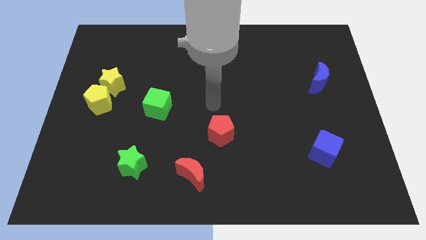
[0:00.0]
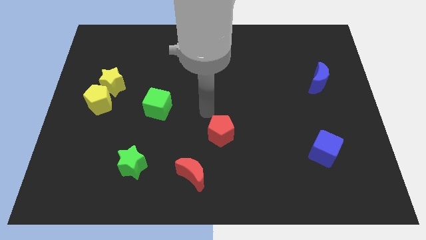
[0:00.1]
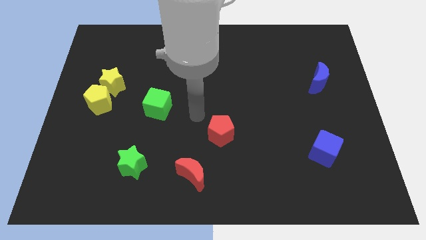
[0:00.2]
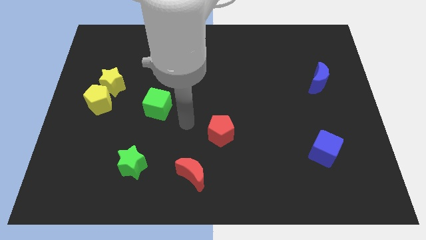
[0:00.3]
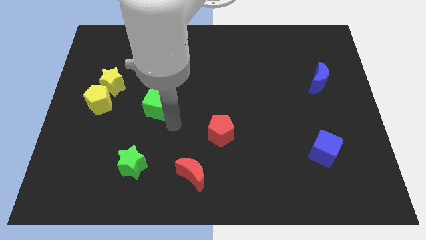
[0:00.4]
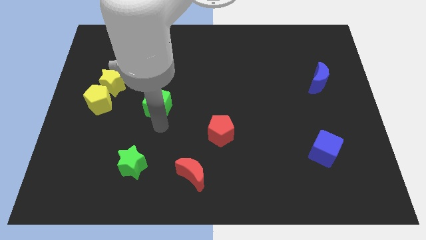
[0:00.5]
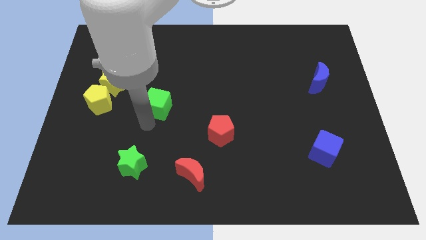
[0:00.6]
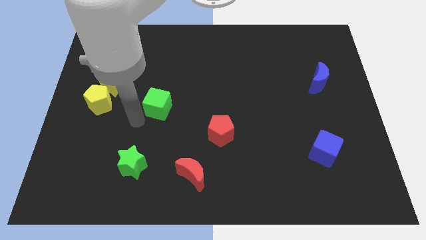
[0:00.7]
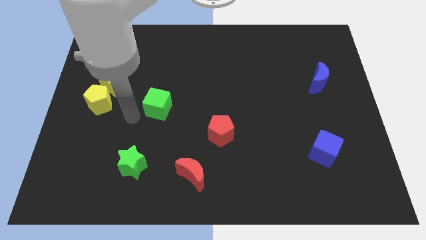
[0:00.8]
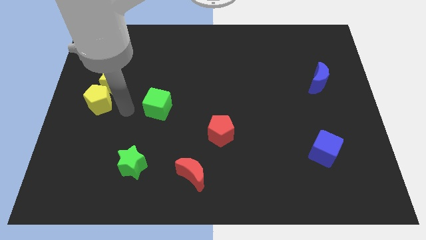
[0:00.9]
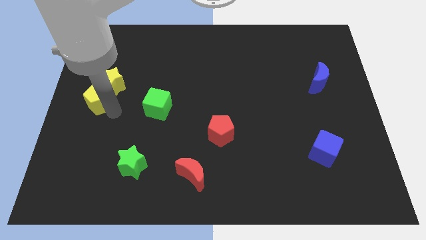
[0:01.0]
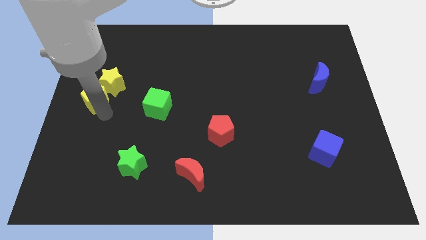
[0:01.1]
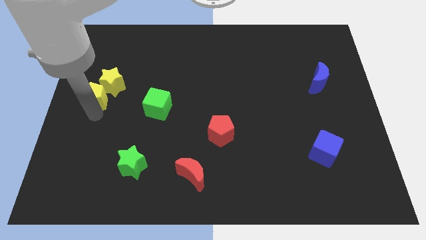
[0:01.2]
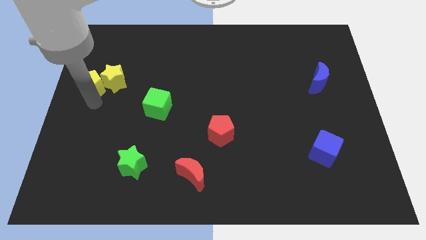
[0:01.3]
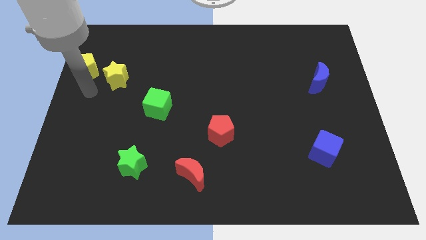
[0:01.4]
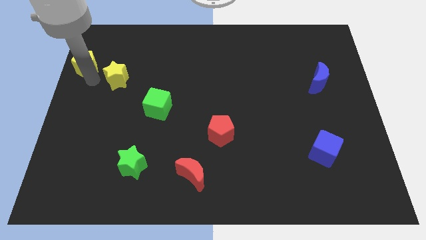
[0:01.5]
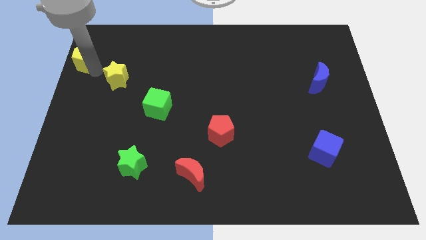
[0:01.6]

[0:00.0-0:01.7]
move the yellow star away from the yellow pentagon

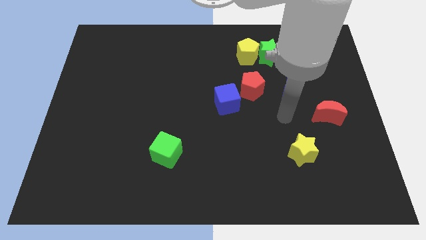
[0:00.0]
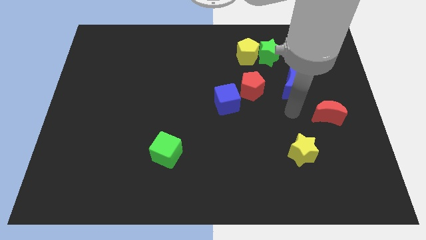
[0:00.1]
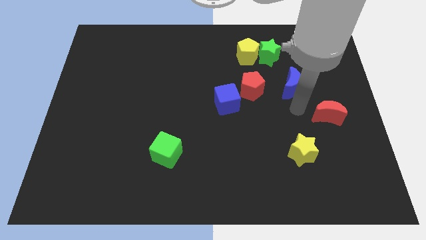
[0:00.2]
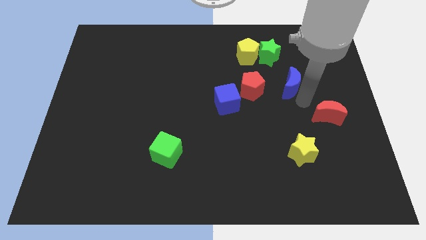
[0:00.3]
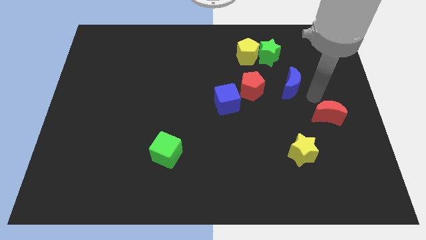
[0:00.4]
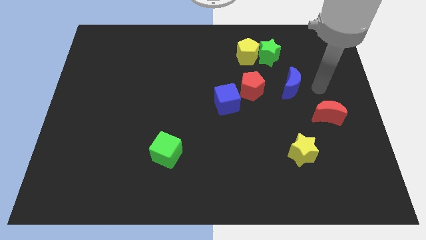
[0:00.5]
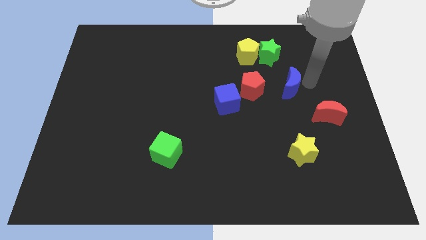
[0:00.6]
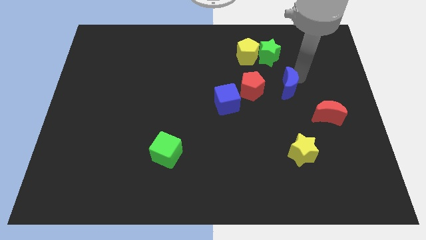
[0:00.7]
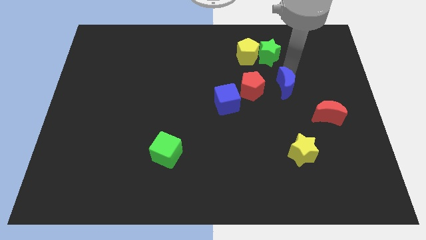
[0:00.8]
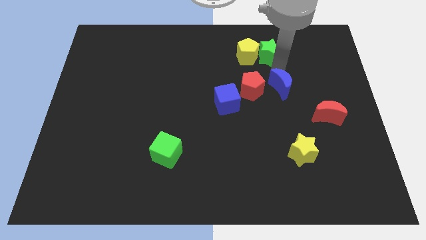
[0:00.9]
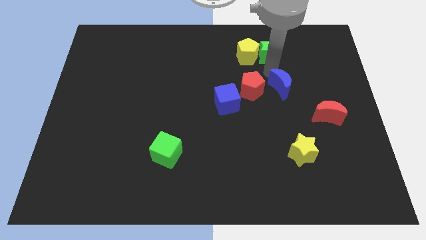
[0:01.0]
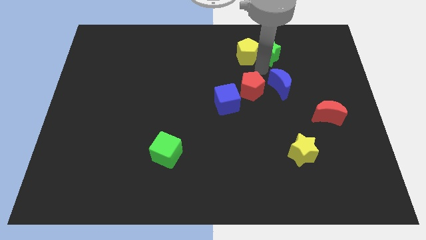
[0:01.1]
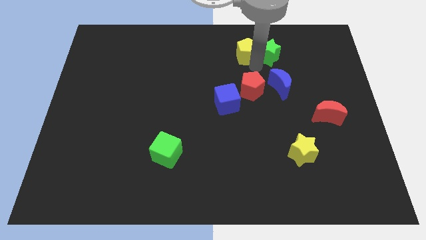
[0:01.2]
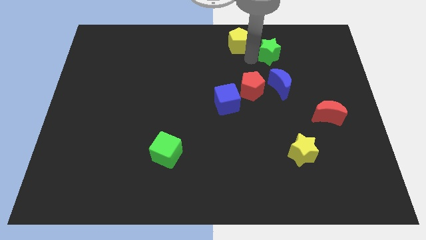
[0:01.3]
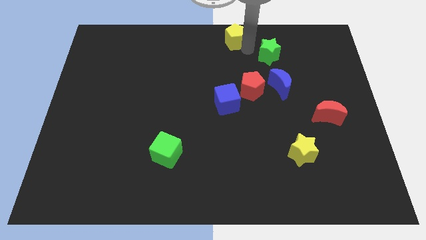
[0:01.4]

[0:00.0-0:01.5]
move the green star away from the yellow pentagon

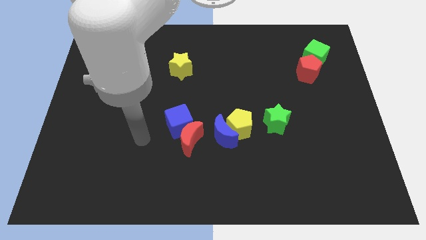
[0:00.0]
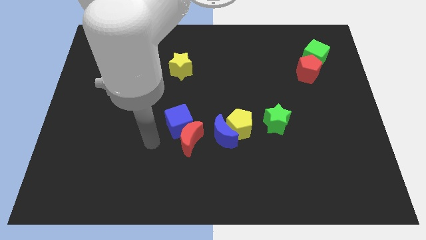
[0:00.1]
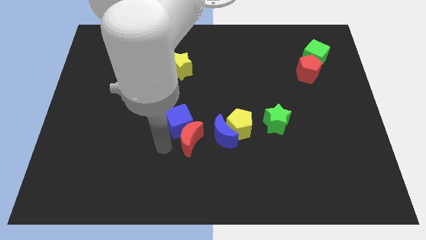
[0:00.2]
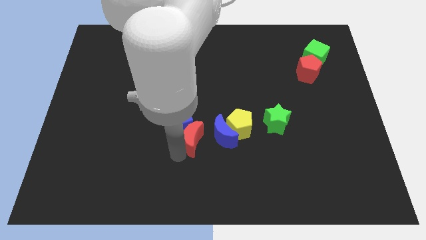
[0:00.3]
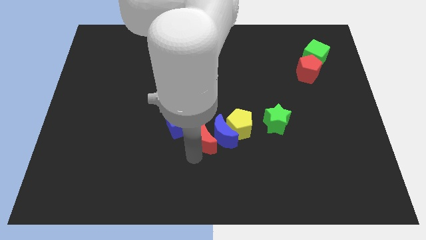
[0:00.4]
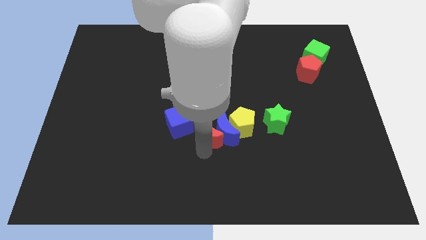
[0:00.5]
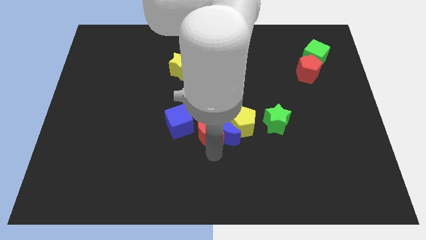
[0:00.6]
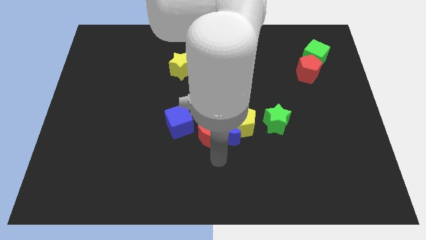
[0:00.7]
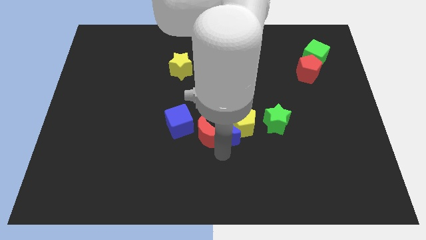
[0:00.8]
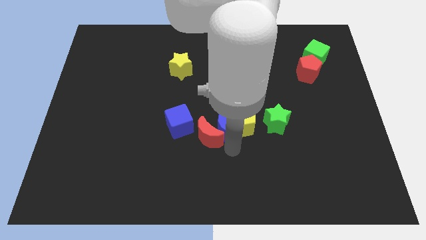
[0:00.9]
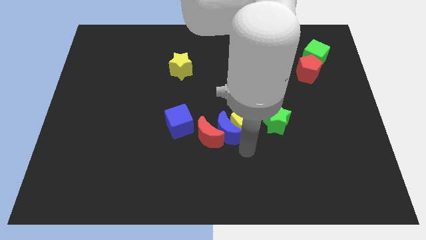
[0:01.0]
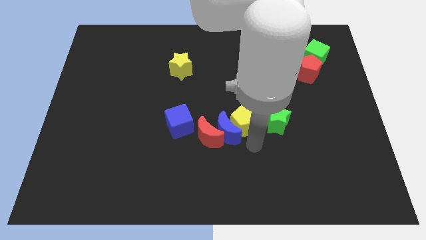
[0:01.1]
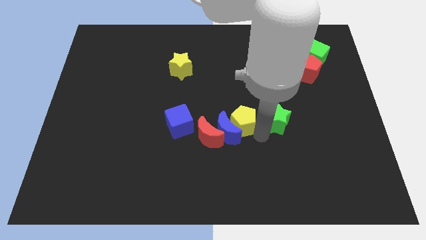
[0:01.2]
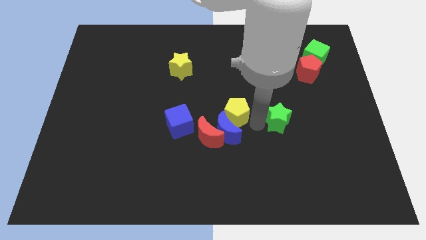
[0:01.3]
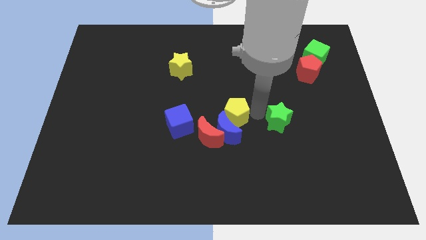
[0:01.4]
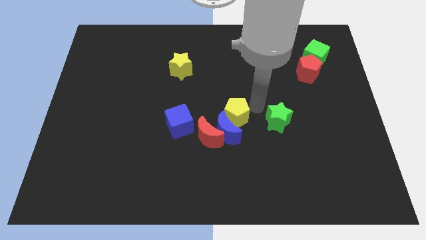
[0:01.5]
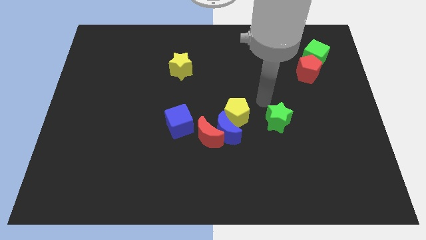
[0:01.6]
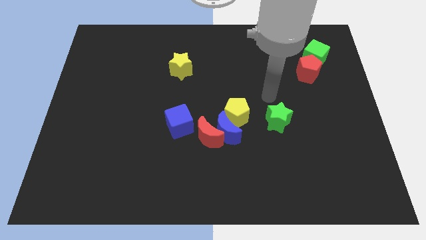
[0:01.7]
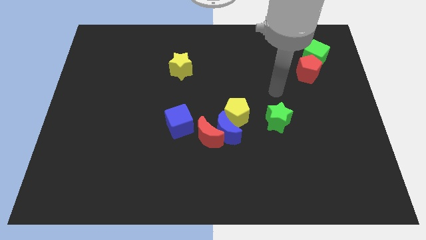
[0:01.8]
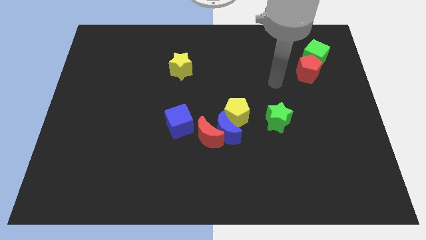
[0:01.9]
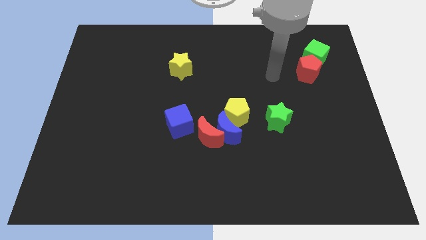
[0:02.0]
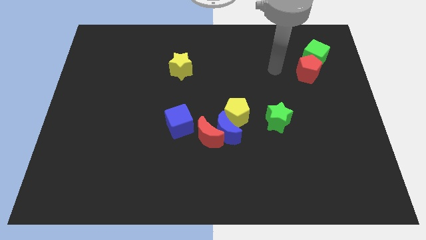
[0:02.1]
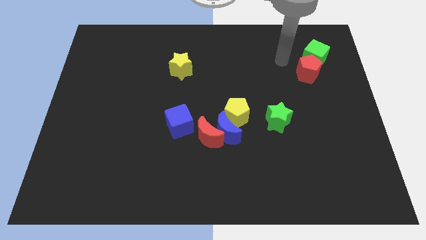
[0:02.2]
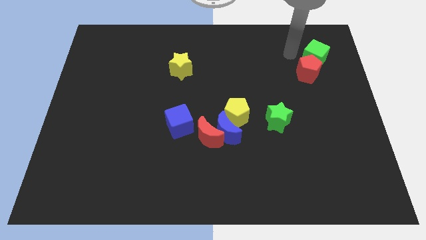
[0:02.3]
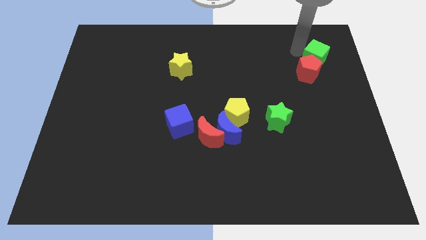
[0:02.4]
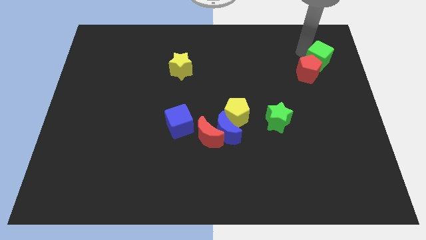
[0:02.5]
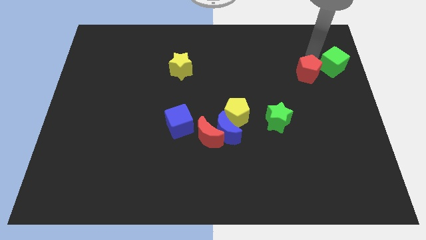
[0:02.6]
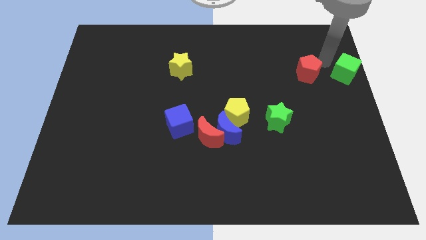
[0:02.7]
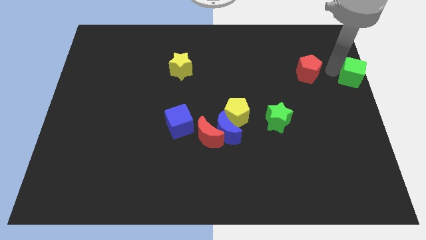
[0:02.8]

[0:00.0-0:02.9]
pull the red pentagon apart from the green cube

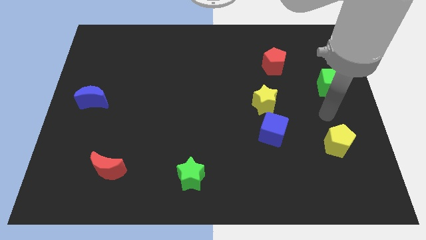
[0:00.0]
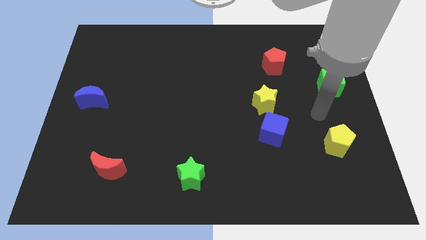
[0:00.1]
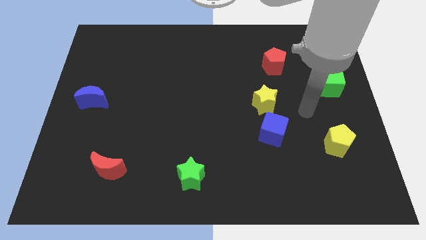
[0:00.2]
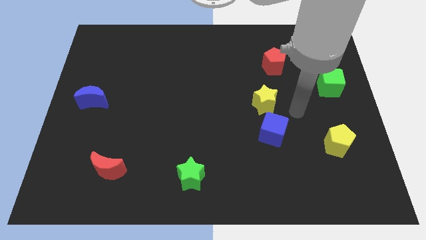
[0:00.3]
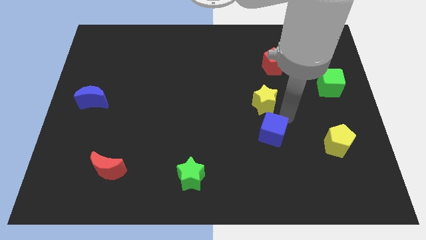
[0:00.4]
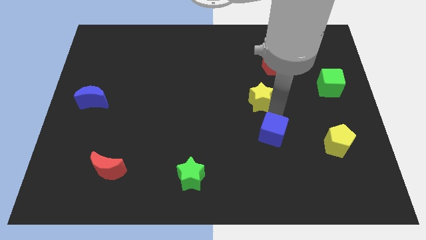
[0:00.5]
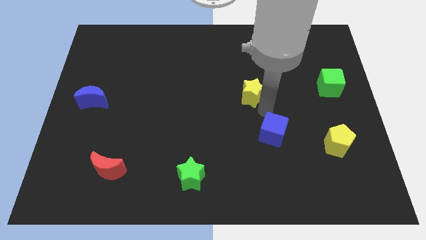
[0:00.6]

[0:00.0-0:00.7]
move the blue cube away from the yellow star

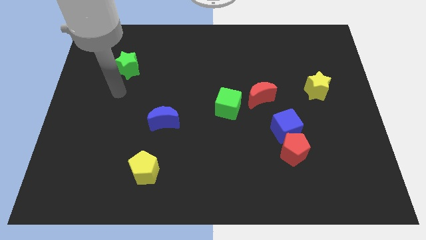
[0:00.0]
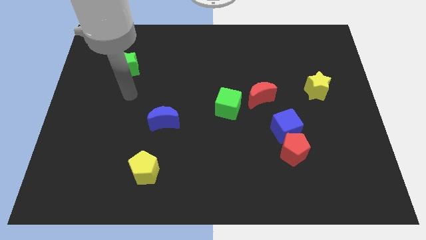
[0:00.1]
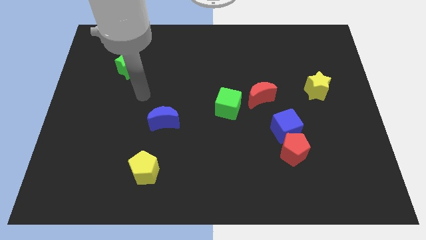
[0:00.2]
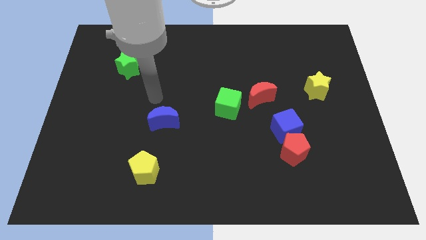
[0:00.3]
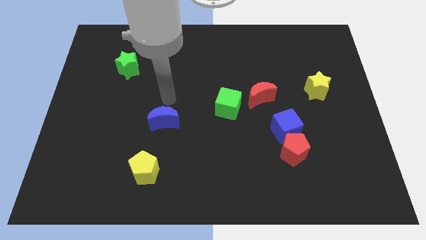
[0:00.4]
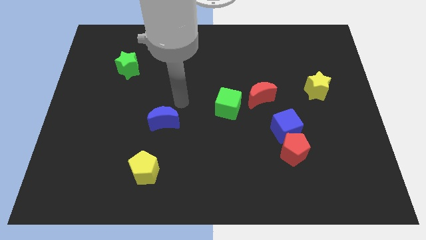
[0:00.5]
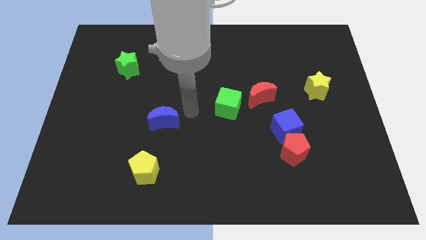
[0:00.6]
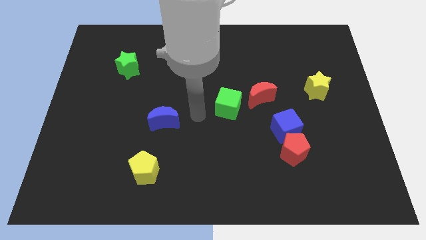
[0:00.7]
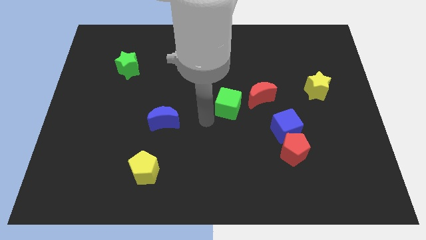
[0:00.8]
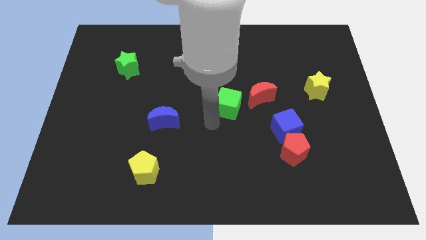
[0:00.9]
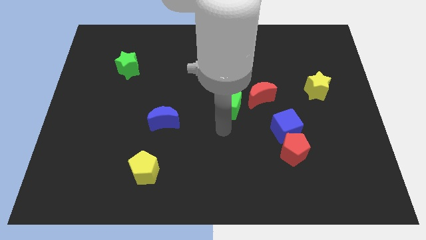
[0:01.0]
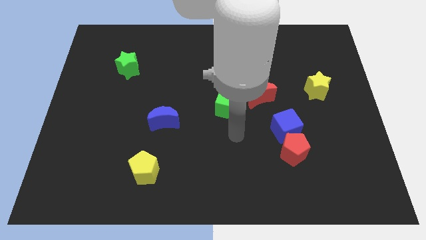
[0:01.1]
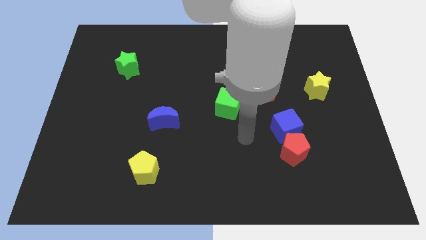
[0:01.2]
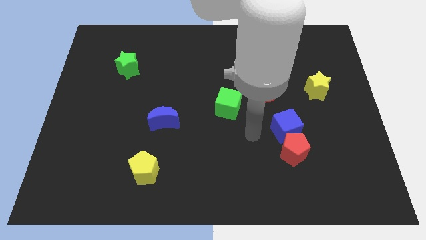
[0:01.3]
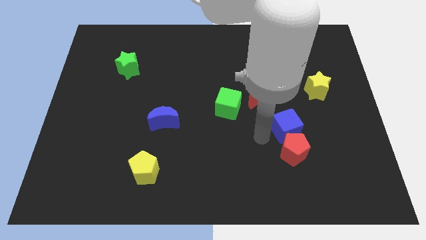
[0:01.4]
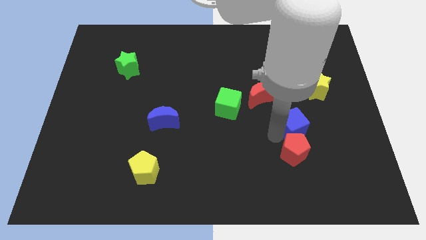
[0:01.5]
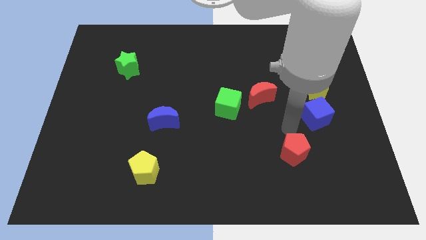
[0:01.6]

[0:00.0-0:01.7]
separate the red pentagon from the blue cube

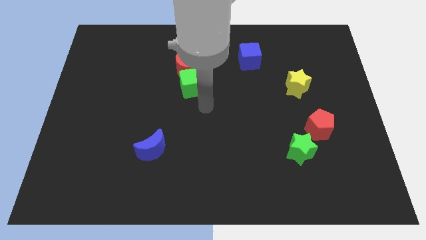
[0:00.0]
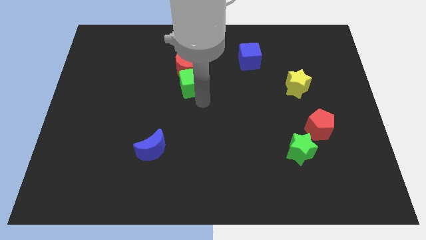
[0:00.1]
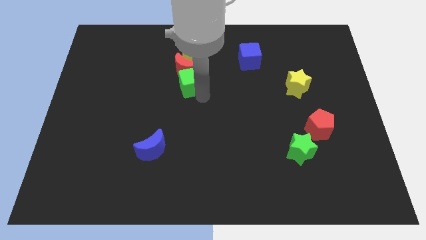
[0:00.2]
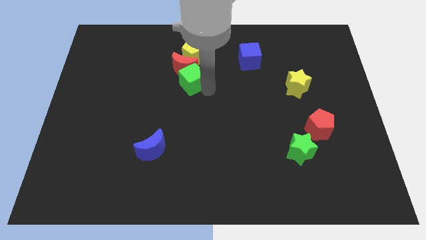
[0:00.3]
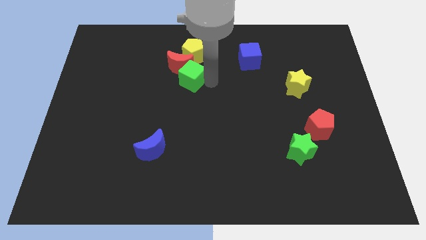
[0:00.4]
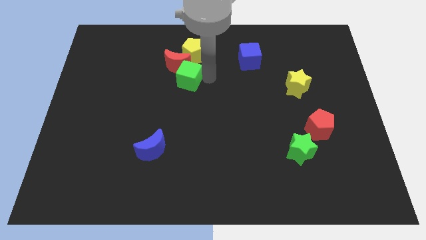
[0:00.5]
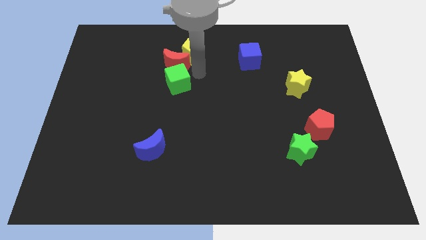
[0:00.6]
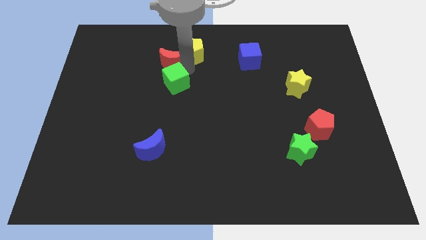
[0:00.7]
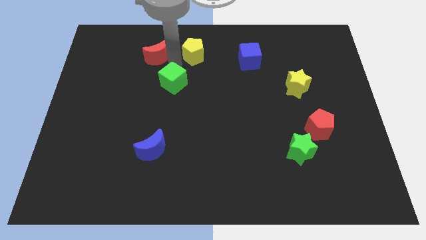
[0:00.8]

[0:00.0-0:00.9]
move the green cube away from the red moon
